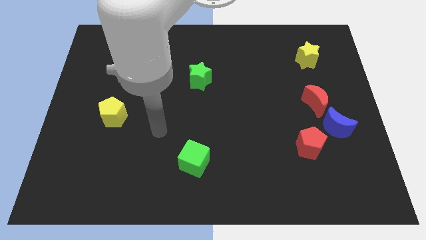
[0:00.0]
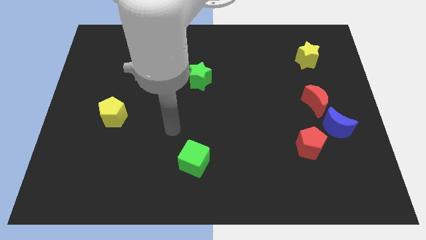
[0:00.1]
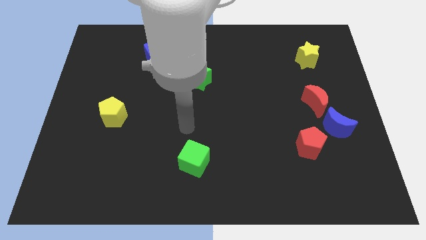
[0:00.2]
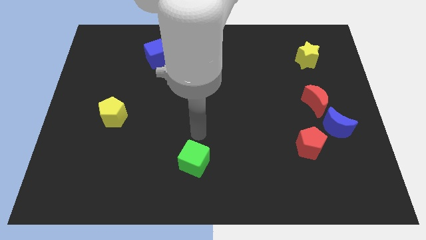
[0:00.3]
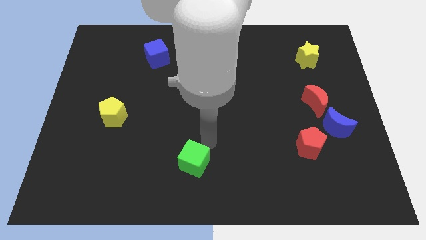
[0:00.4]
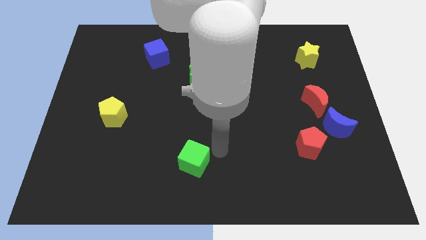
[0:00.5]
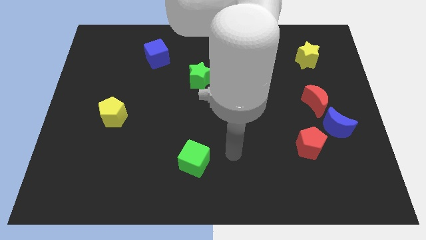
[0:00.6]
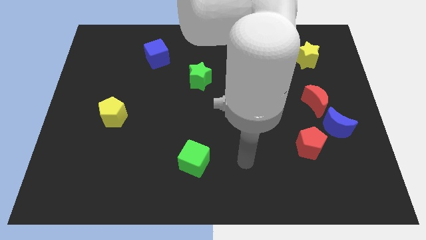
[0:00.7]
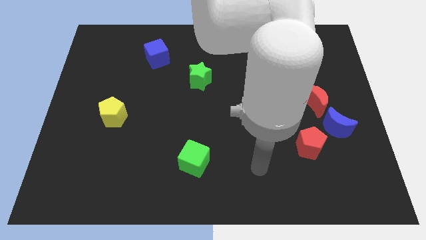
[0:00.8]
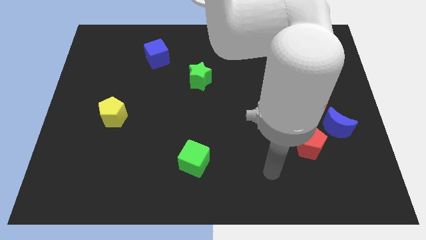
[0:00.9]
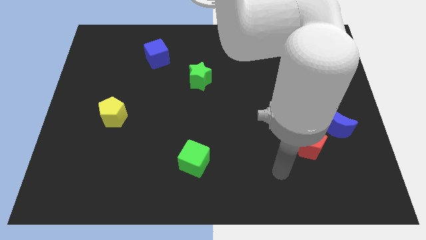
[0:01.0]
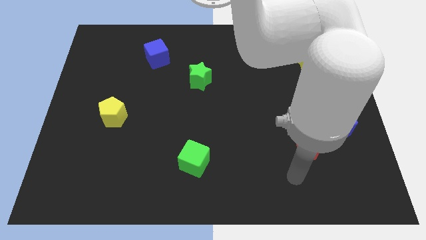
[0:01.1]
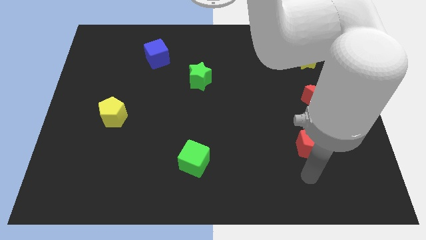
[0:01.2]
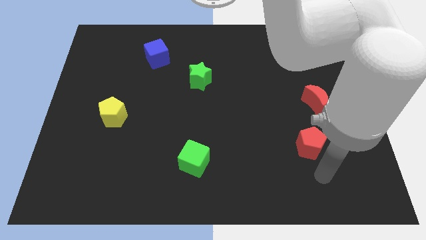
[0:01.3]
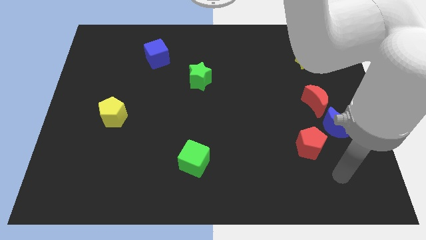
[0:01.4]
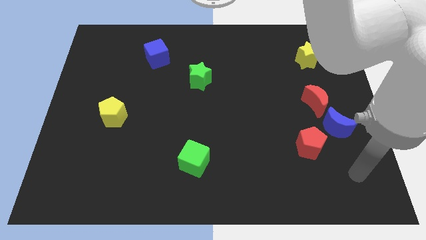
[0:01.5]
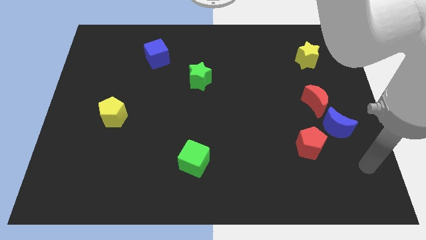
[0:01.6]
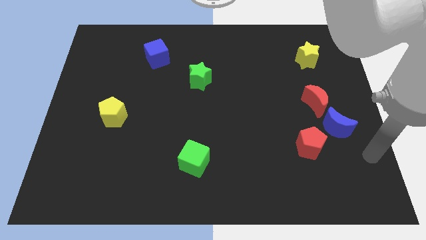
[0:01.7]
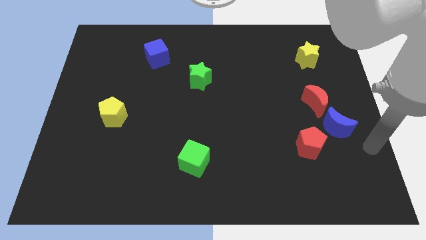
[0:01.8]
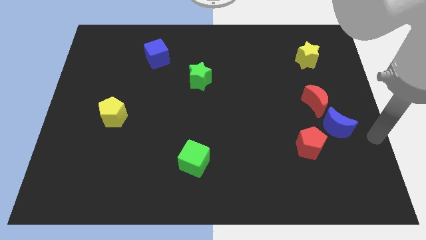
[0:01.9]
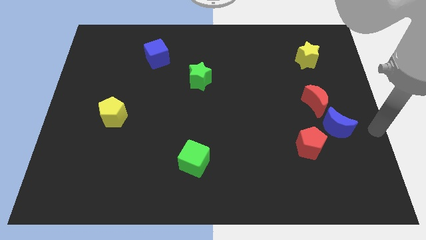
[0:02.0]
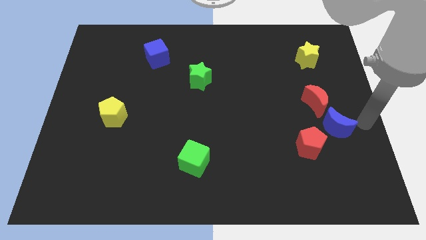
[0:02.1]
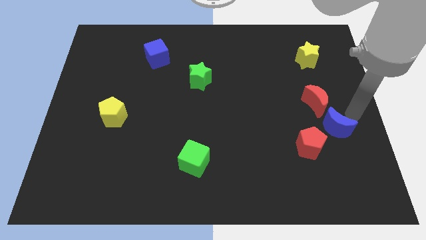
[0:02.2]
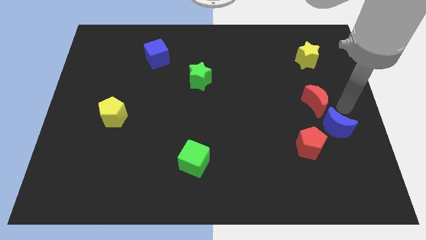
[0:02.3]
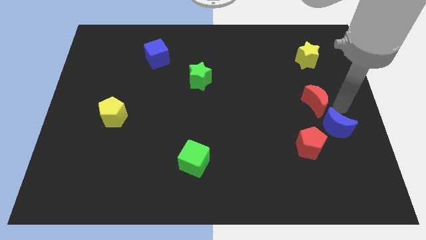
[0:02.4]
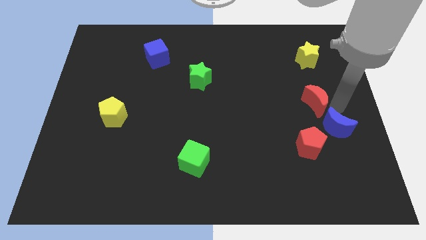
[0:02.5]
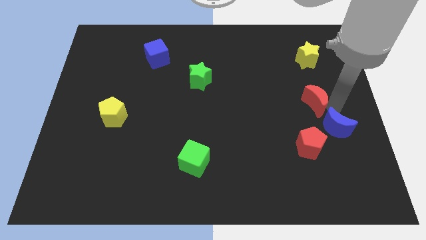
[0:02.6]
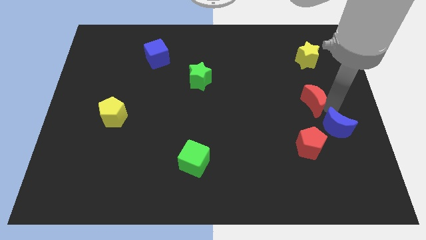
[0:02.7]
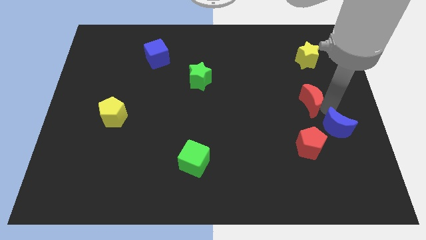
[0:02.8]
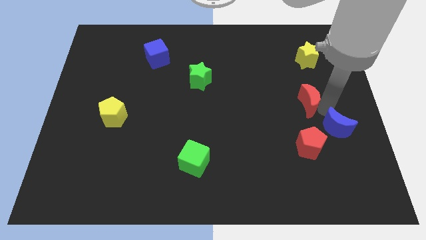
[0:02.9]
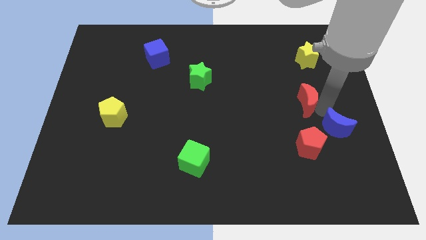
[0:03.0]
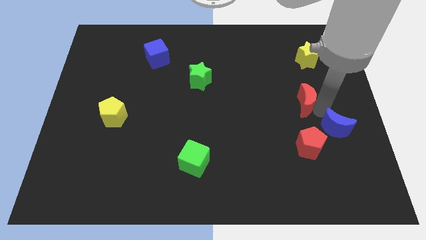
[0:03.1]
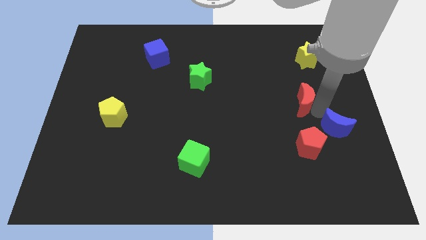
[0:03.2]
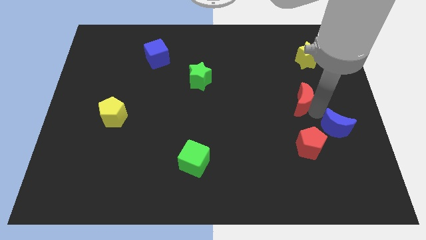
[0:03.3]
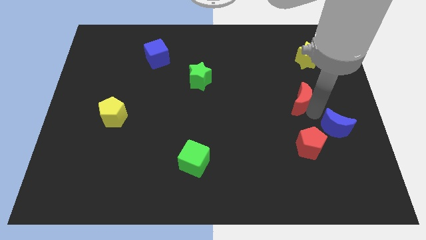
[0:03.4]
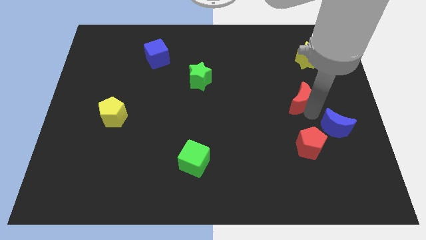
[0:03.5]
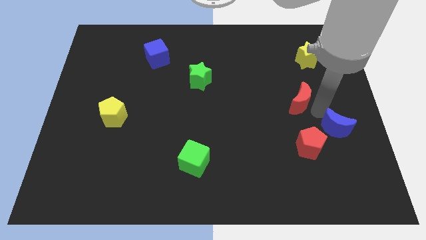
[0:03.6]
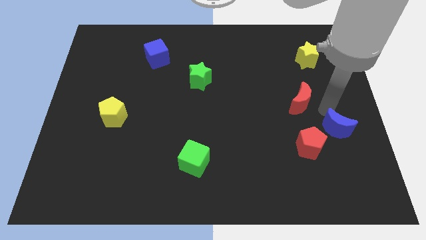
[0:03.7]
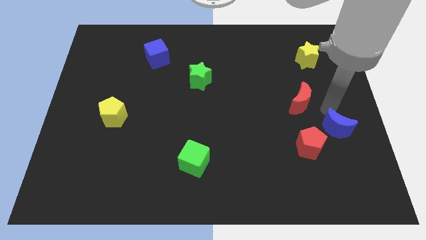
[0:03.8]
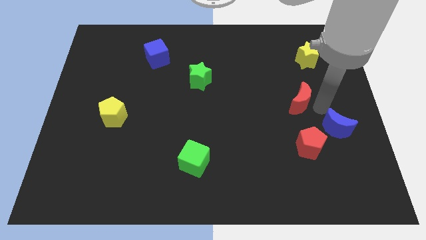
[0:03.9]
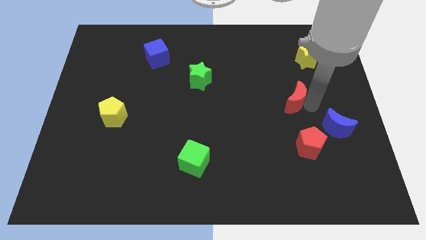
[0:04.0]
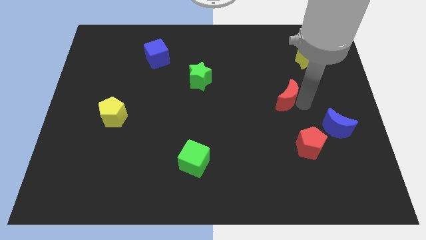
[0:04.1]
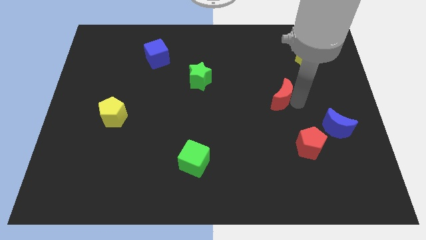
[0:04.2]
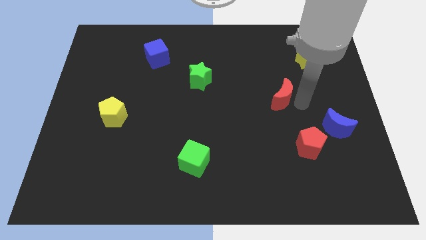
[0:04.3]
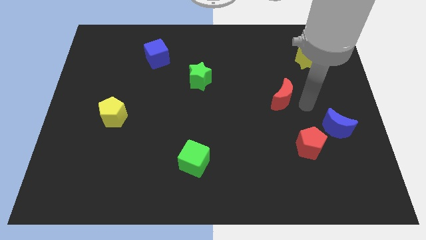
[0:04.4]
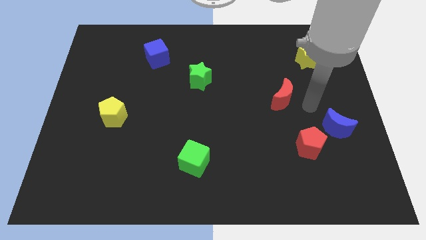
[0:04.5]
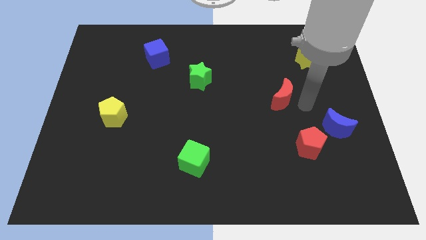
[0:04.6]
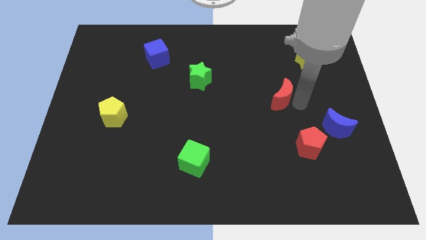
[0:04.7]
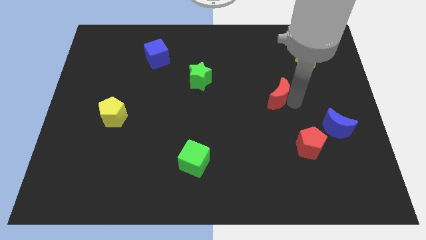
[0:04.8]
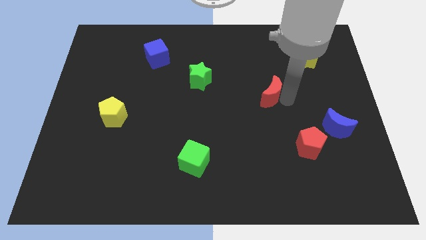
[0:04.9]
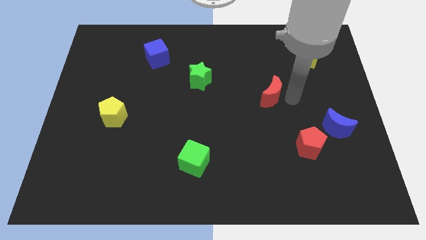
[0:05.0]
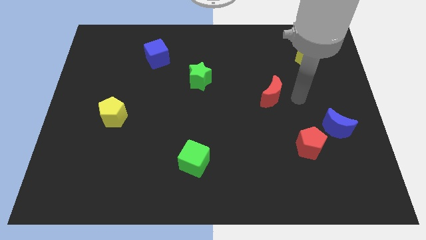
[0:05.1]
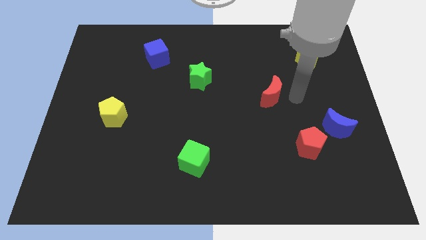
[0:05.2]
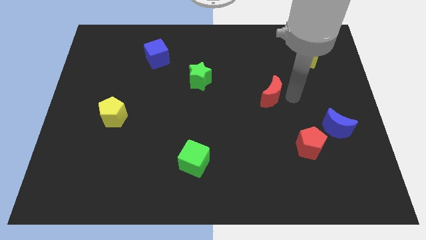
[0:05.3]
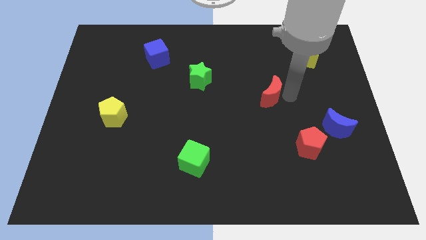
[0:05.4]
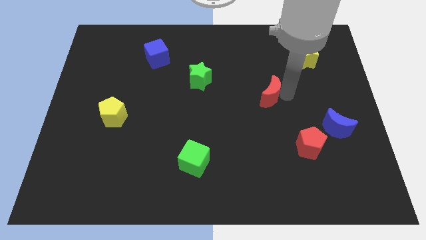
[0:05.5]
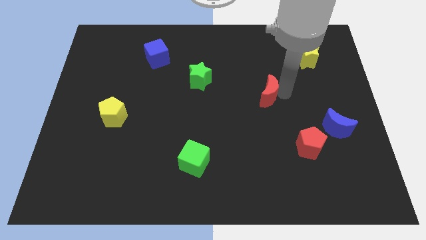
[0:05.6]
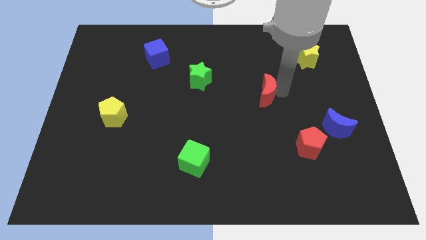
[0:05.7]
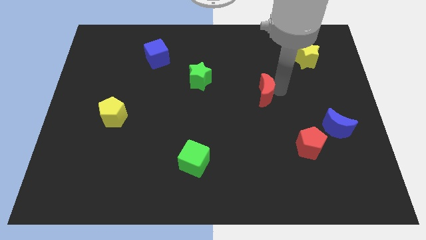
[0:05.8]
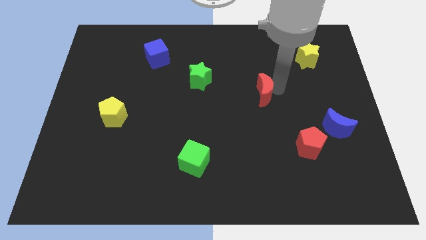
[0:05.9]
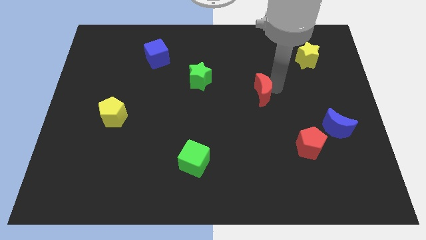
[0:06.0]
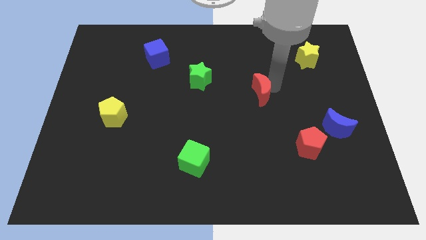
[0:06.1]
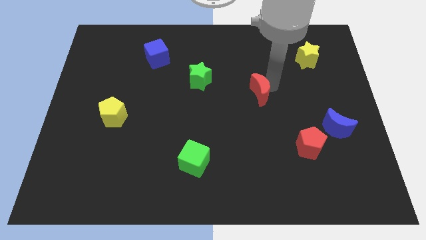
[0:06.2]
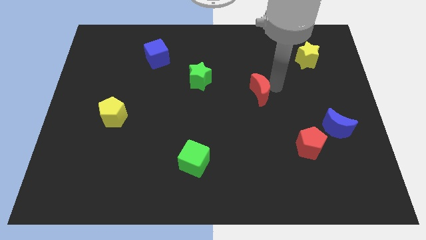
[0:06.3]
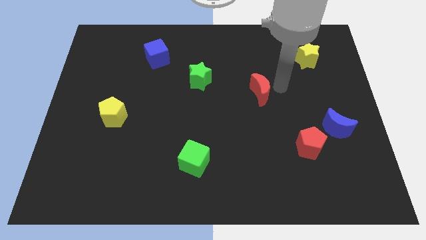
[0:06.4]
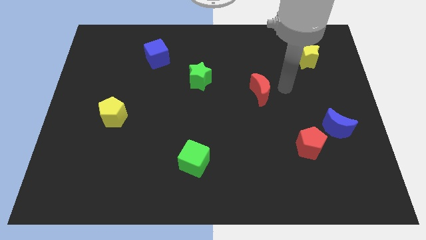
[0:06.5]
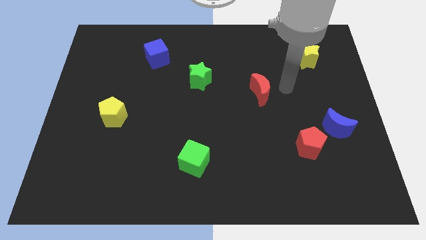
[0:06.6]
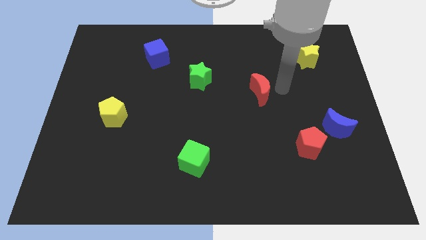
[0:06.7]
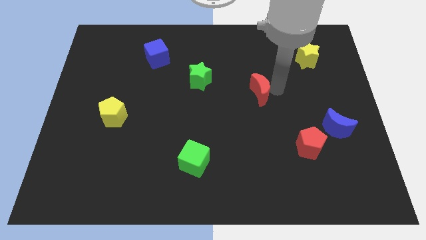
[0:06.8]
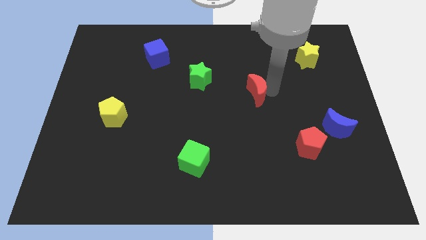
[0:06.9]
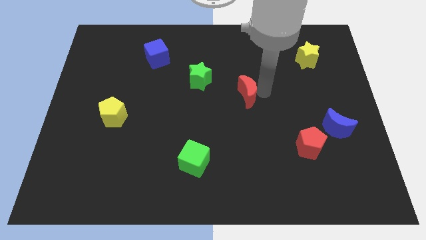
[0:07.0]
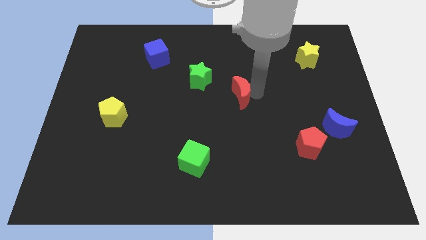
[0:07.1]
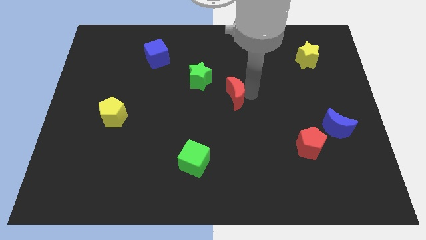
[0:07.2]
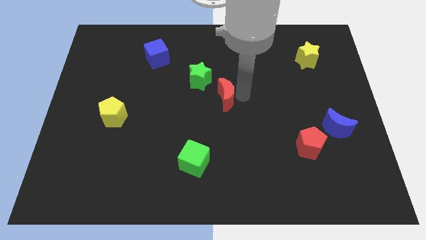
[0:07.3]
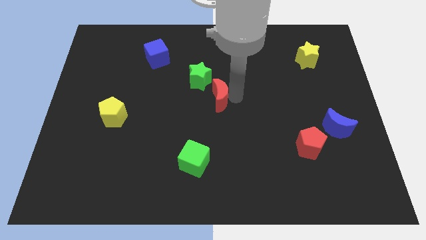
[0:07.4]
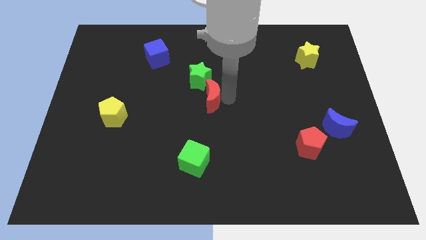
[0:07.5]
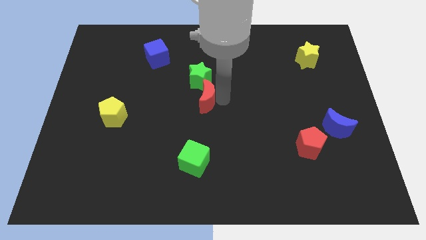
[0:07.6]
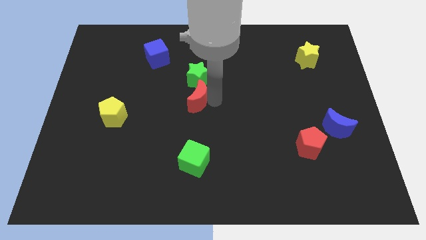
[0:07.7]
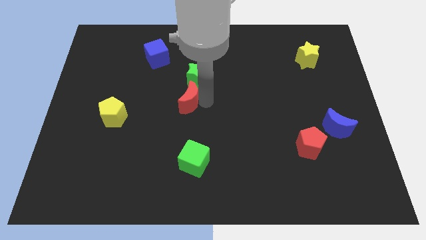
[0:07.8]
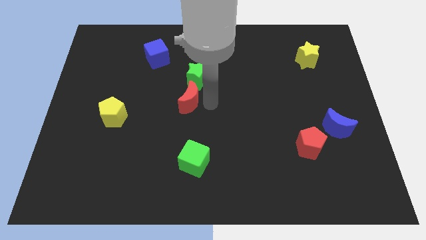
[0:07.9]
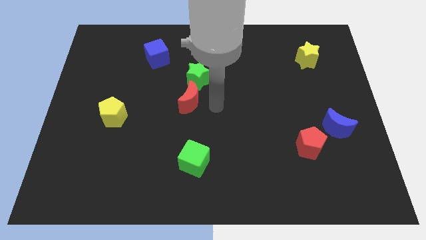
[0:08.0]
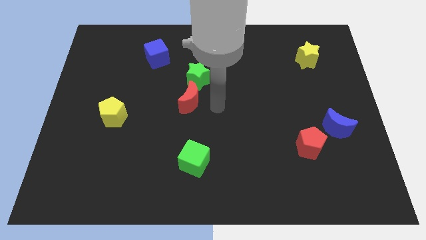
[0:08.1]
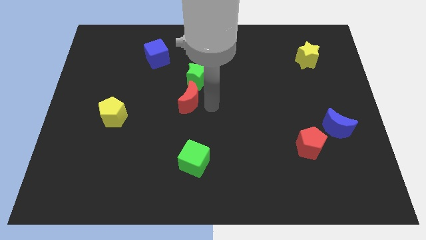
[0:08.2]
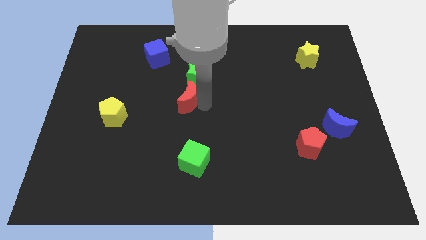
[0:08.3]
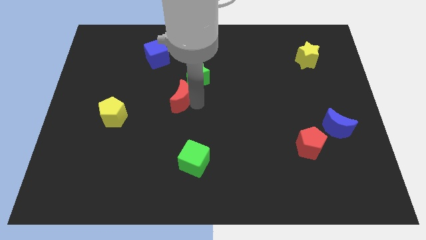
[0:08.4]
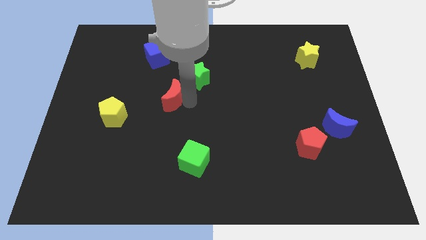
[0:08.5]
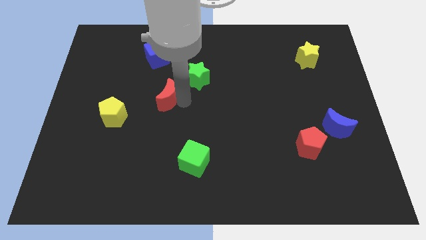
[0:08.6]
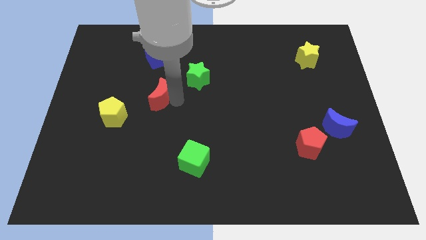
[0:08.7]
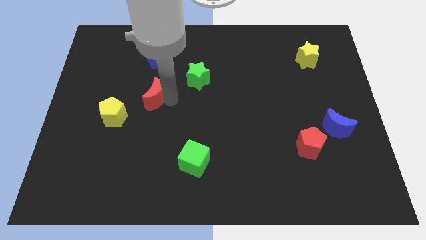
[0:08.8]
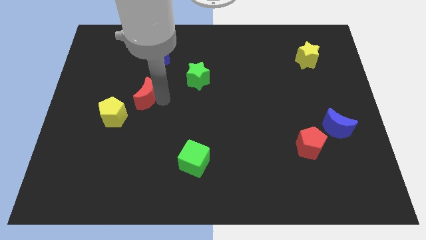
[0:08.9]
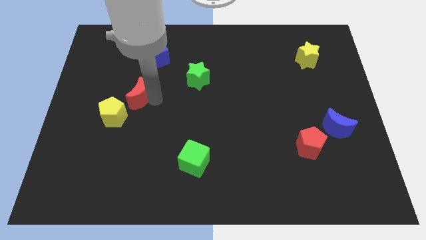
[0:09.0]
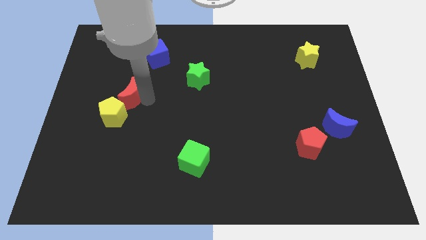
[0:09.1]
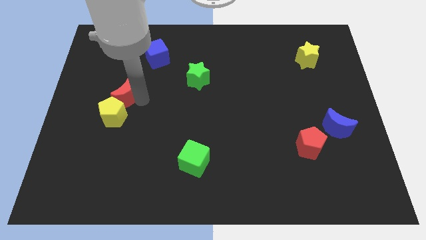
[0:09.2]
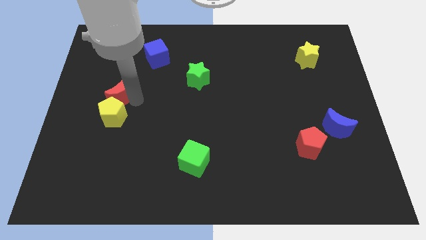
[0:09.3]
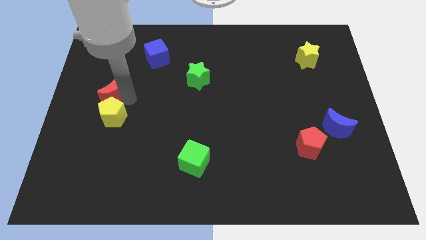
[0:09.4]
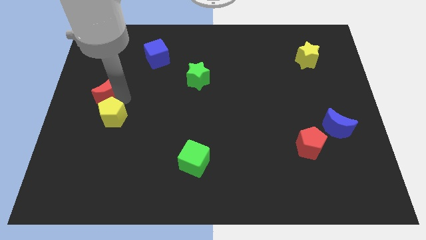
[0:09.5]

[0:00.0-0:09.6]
move the red moon to the center left
